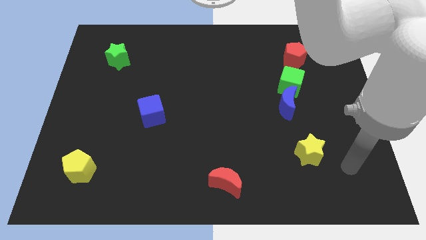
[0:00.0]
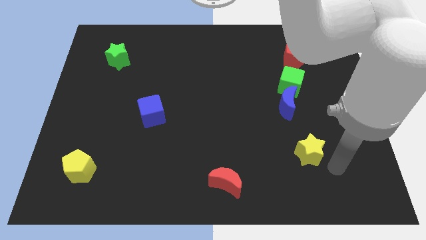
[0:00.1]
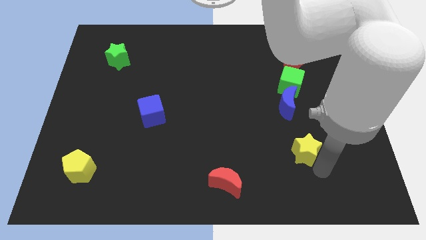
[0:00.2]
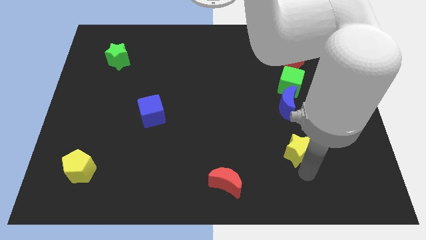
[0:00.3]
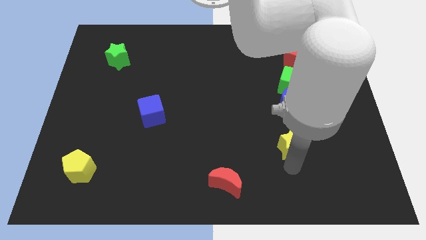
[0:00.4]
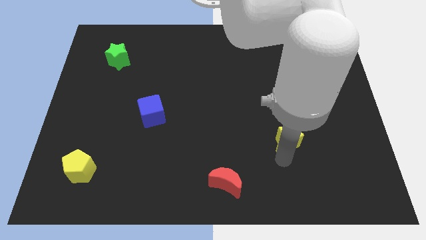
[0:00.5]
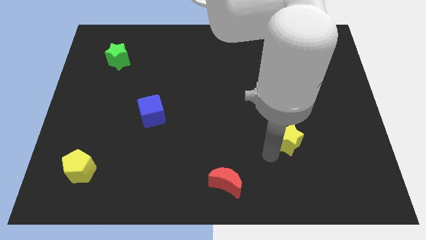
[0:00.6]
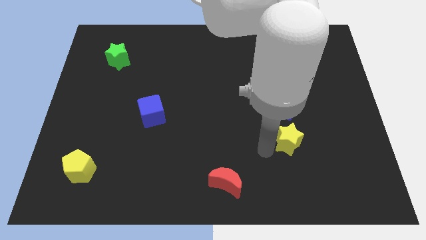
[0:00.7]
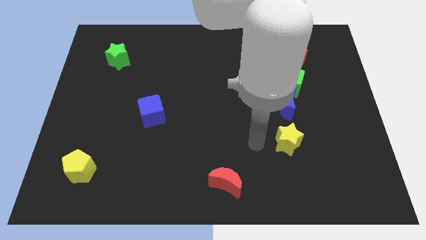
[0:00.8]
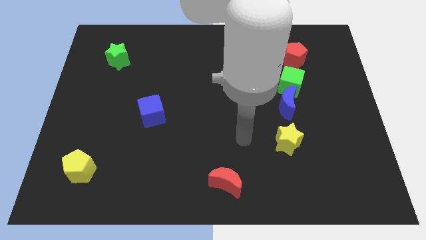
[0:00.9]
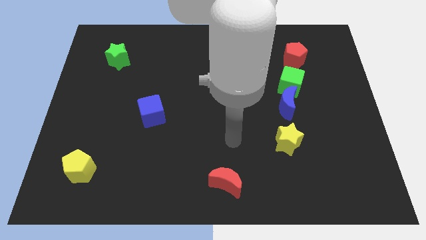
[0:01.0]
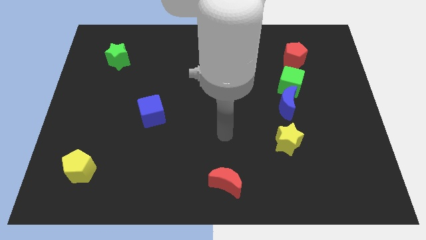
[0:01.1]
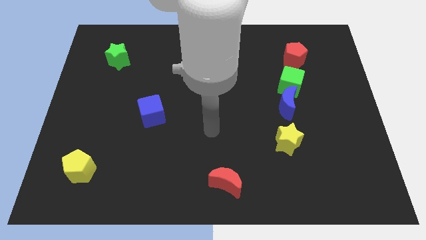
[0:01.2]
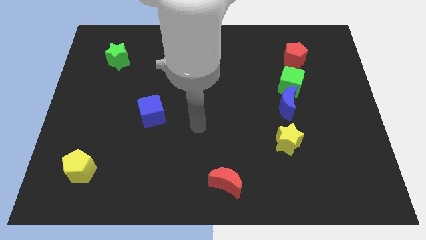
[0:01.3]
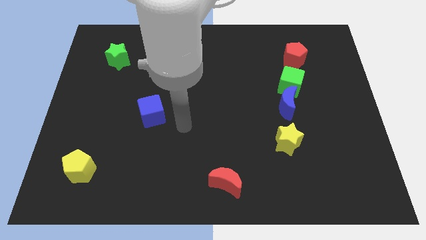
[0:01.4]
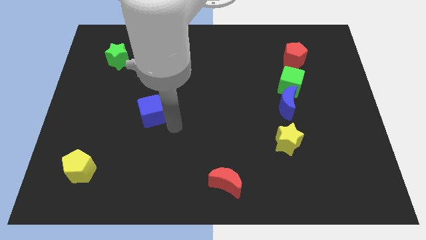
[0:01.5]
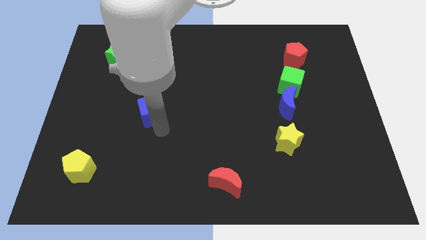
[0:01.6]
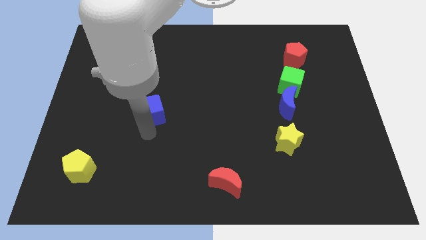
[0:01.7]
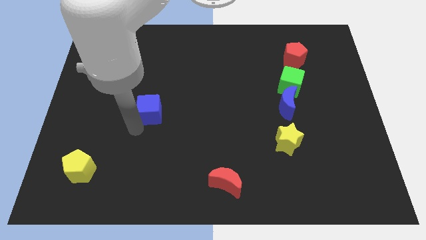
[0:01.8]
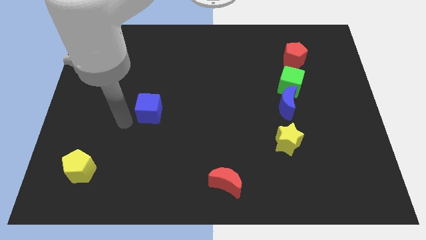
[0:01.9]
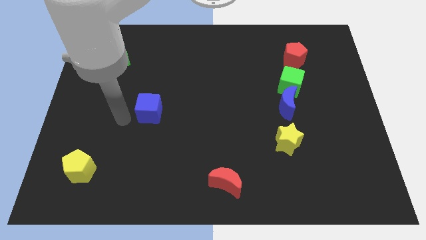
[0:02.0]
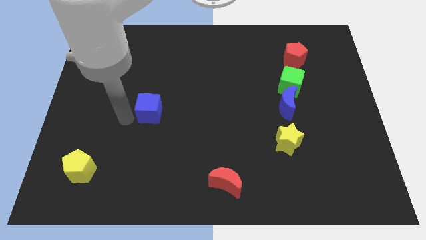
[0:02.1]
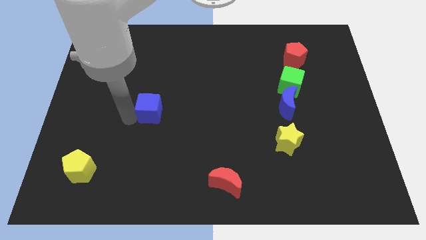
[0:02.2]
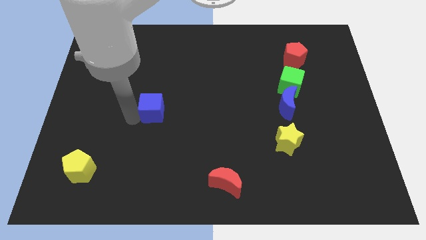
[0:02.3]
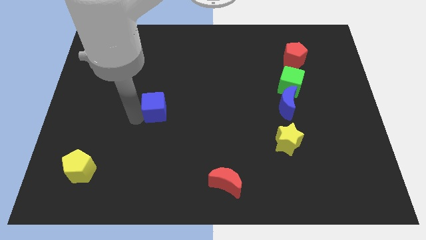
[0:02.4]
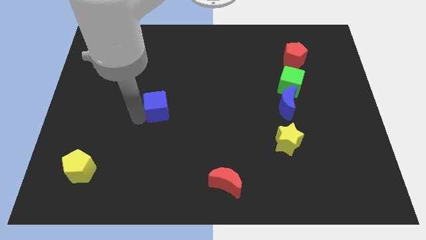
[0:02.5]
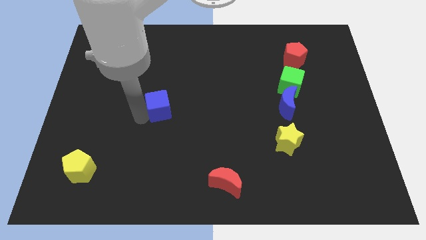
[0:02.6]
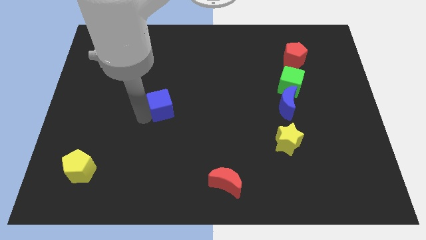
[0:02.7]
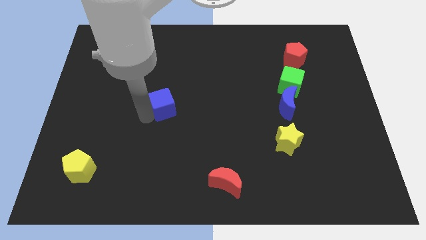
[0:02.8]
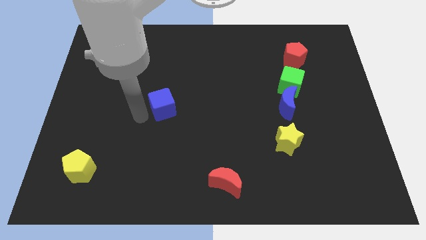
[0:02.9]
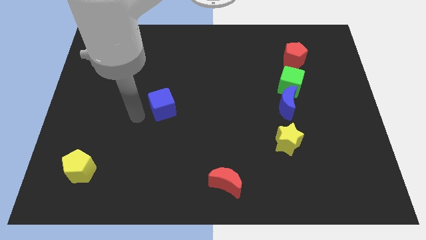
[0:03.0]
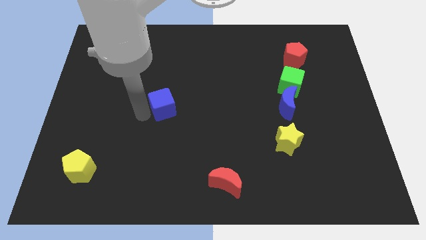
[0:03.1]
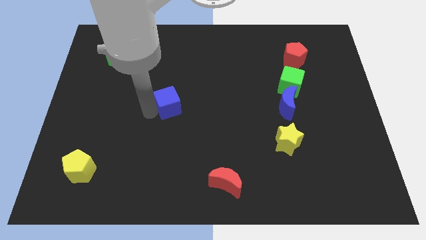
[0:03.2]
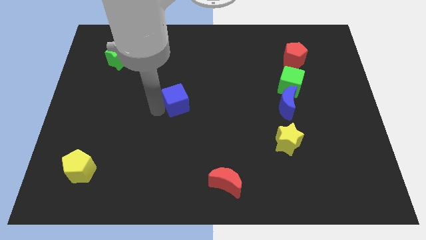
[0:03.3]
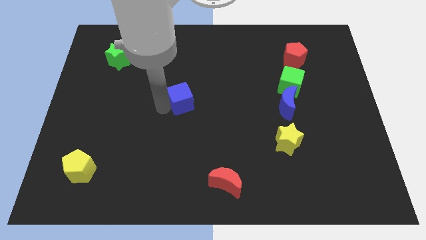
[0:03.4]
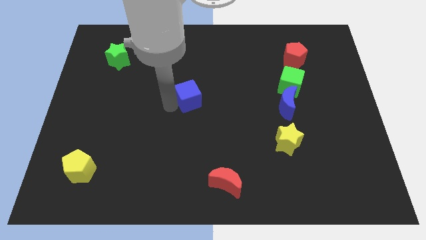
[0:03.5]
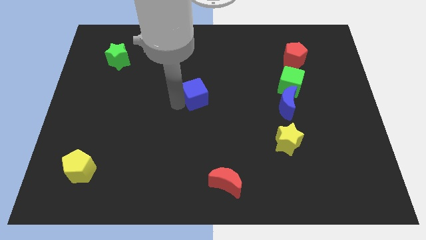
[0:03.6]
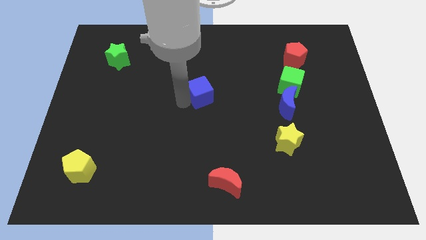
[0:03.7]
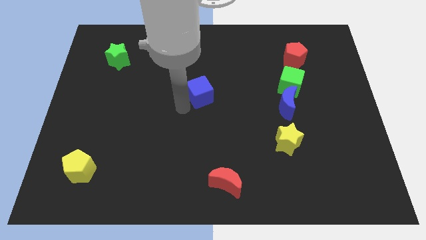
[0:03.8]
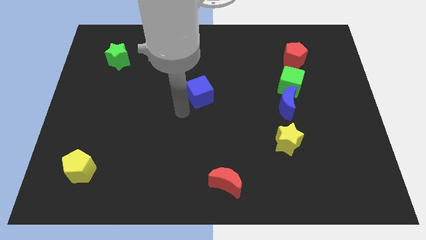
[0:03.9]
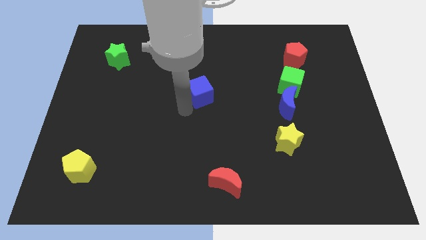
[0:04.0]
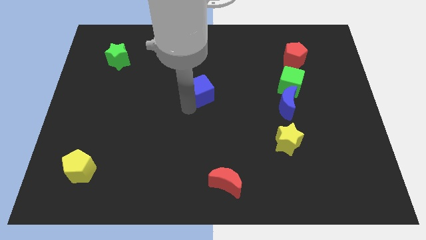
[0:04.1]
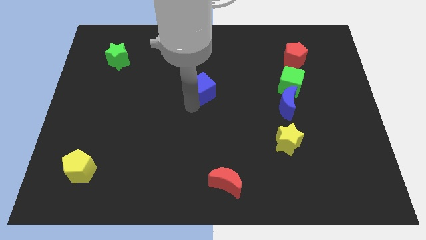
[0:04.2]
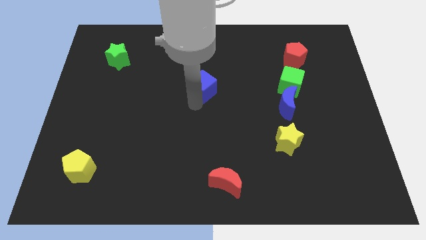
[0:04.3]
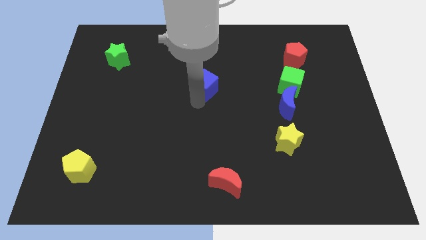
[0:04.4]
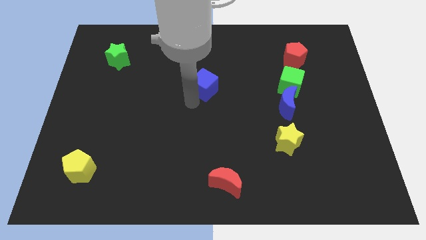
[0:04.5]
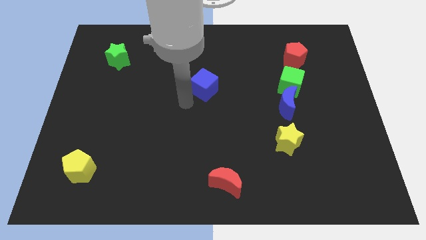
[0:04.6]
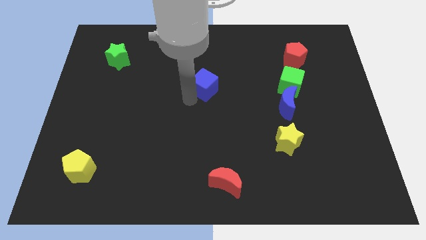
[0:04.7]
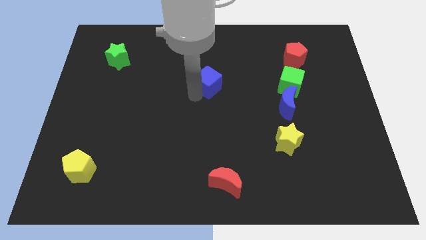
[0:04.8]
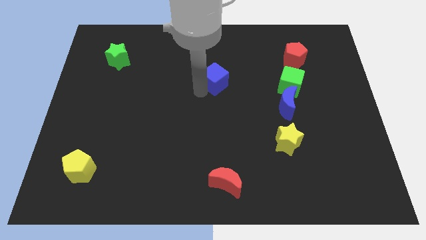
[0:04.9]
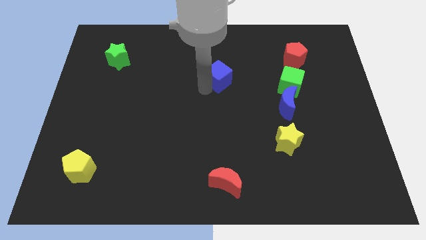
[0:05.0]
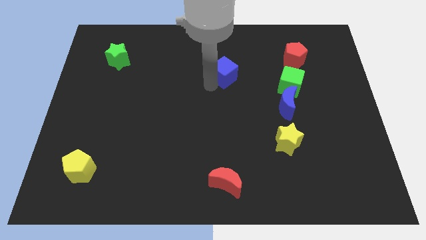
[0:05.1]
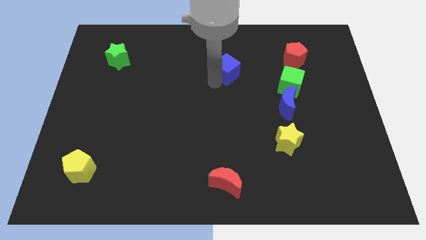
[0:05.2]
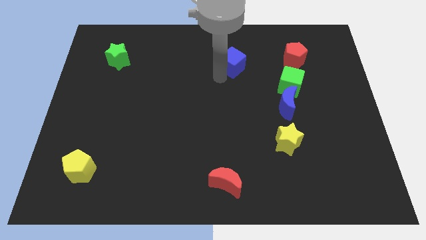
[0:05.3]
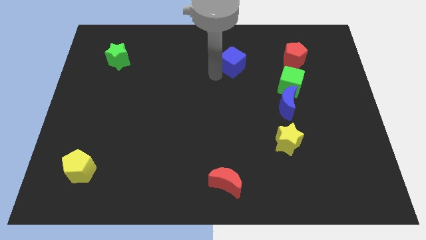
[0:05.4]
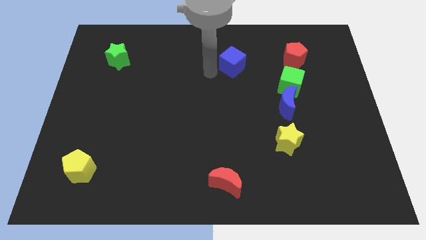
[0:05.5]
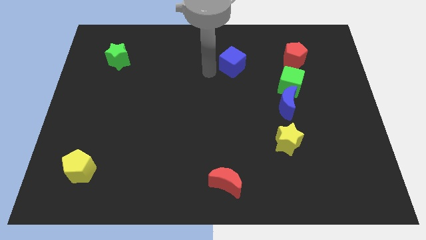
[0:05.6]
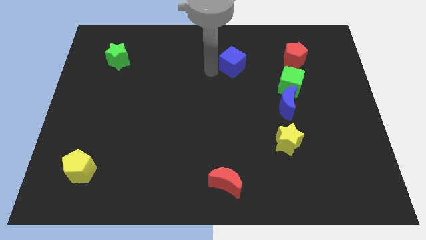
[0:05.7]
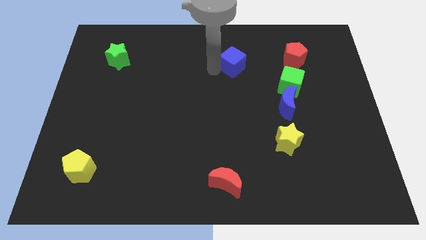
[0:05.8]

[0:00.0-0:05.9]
slide the blue cube just left of the red pentagon

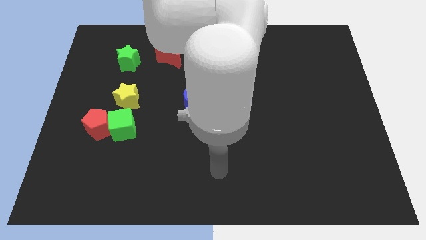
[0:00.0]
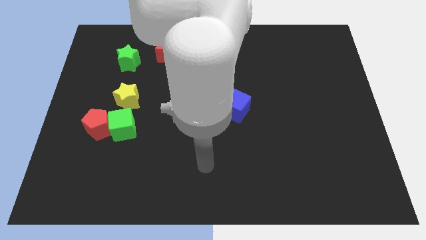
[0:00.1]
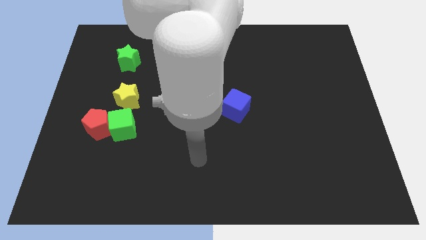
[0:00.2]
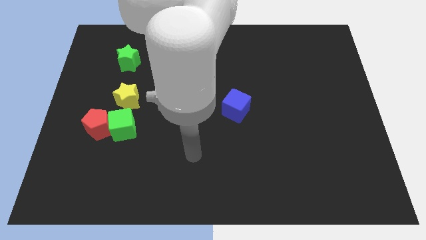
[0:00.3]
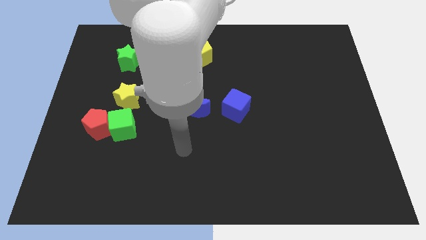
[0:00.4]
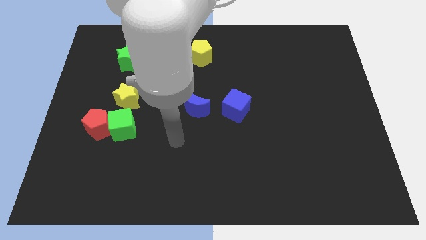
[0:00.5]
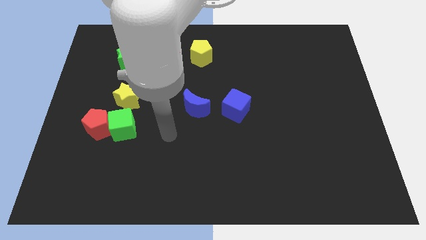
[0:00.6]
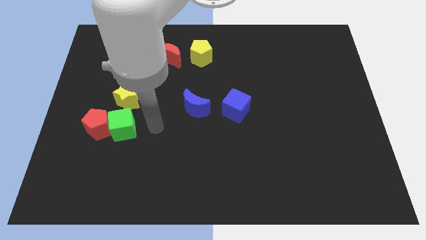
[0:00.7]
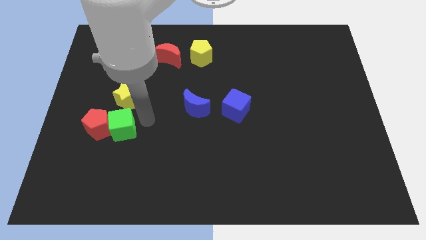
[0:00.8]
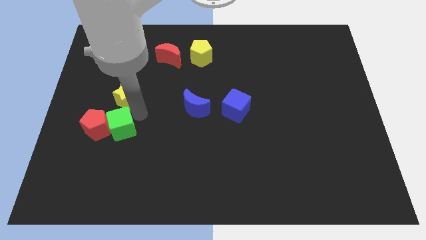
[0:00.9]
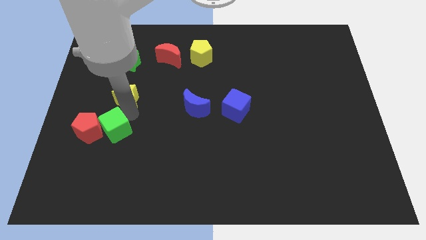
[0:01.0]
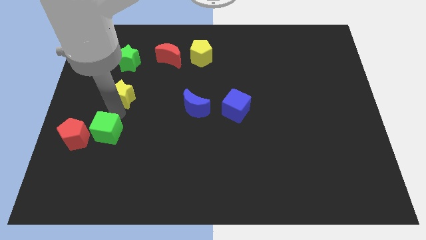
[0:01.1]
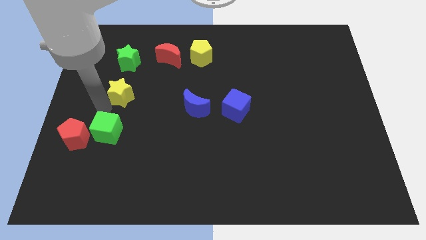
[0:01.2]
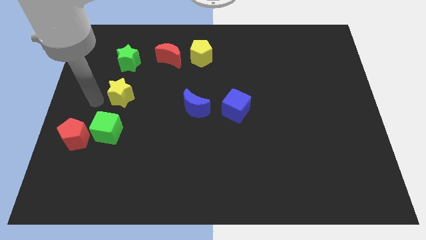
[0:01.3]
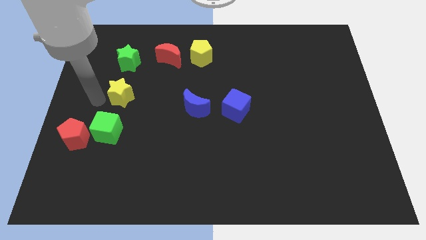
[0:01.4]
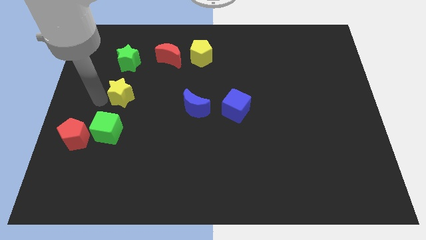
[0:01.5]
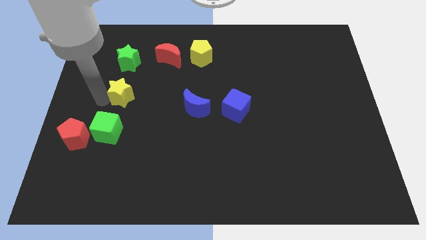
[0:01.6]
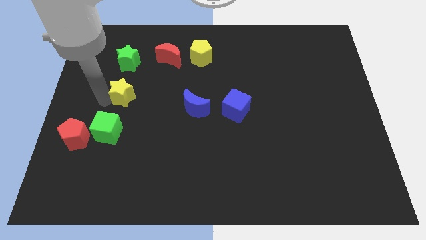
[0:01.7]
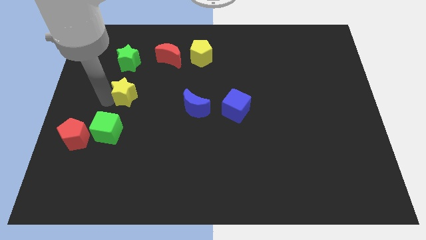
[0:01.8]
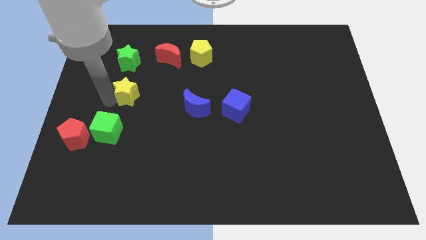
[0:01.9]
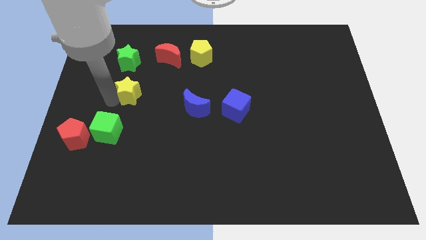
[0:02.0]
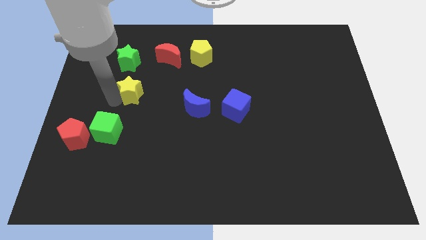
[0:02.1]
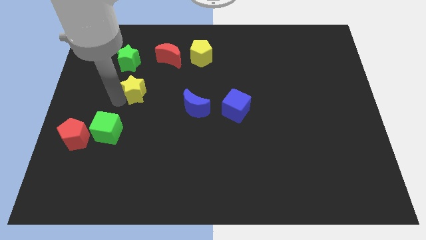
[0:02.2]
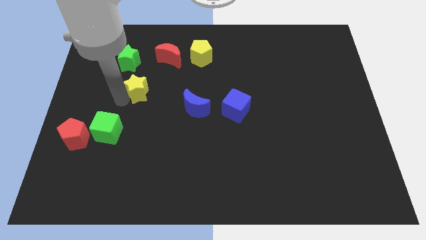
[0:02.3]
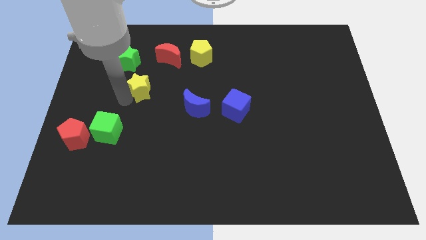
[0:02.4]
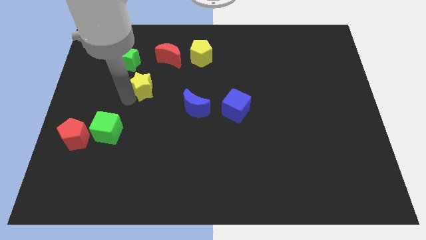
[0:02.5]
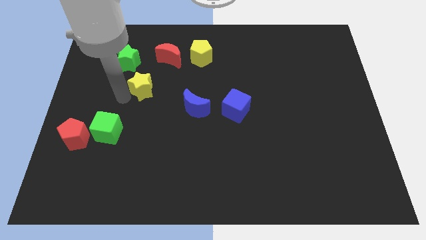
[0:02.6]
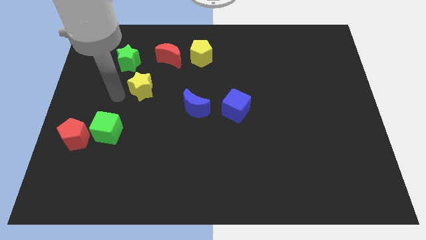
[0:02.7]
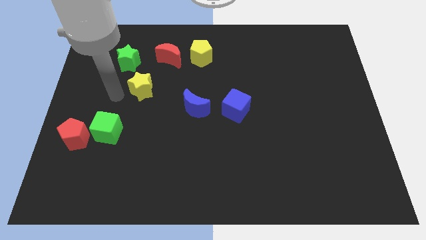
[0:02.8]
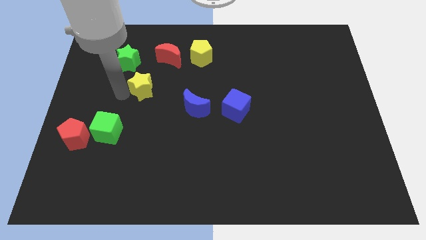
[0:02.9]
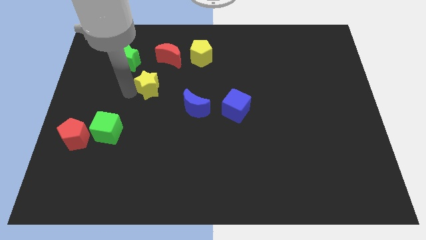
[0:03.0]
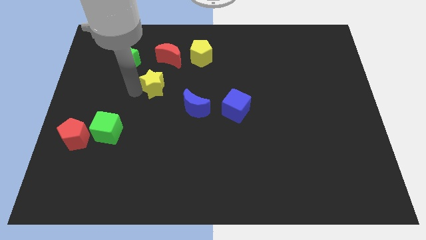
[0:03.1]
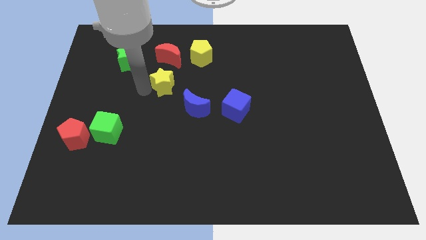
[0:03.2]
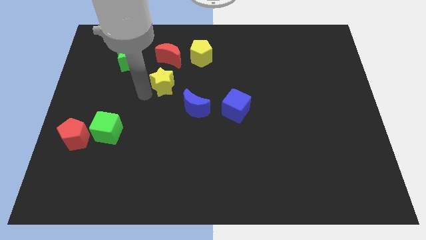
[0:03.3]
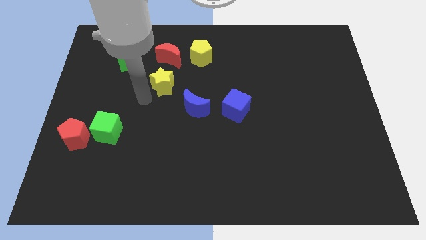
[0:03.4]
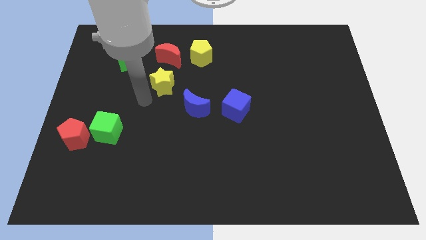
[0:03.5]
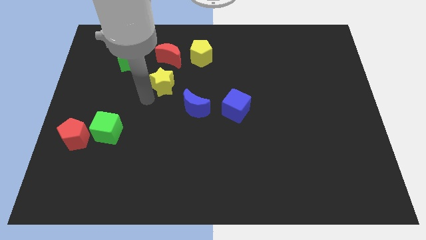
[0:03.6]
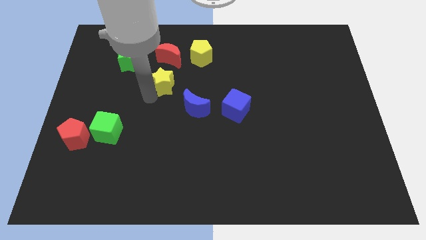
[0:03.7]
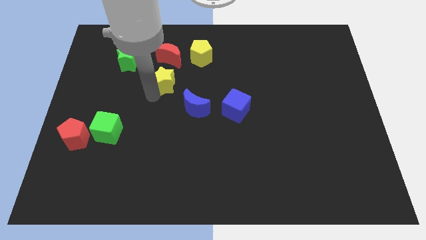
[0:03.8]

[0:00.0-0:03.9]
slide the yellow star to the bottom left of the yellow pentagon
